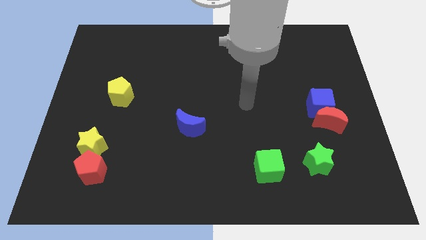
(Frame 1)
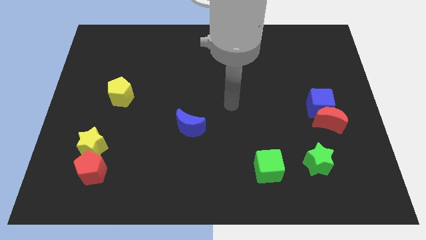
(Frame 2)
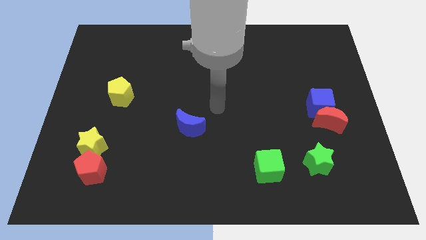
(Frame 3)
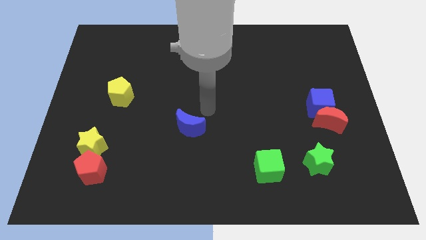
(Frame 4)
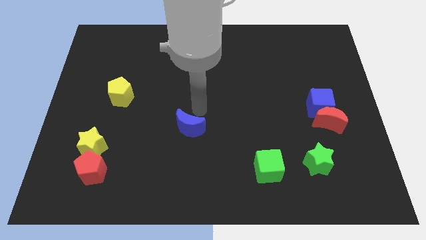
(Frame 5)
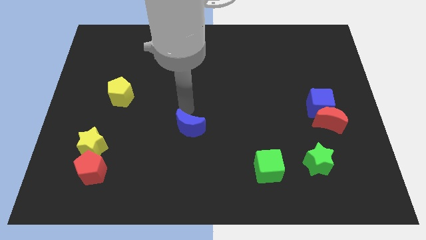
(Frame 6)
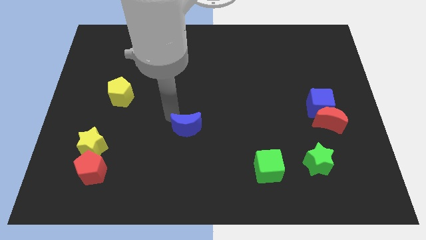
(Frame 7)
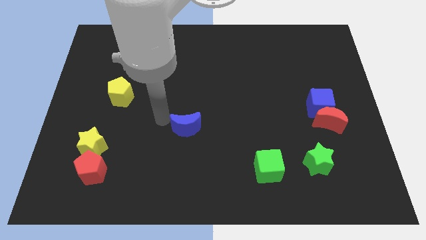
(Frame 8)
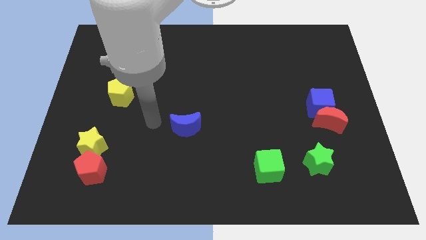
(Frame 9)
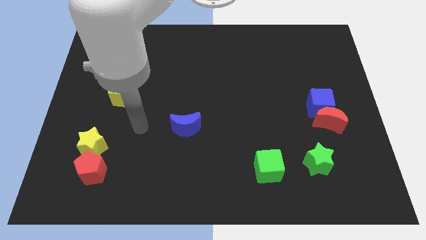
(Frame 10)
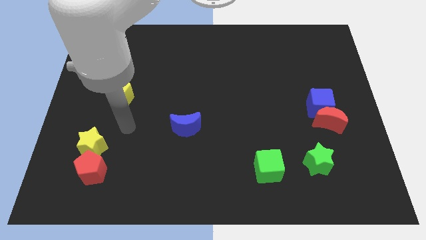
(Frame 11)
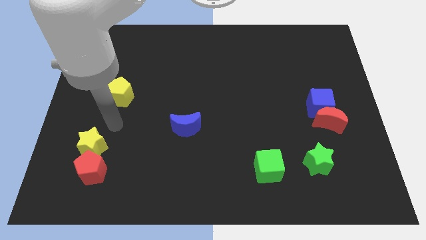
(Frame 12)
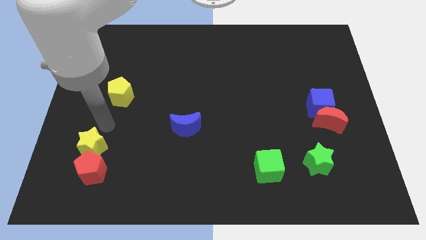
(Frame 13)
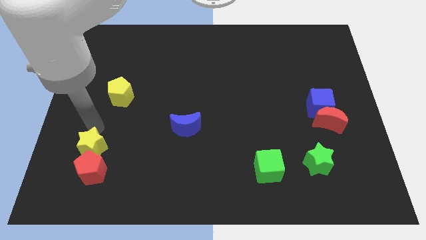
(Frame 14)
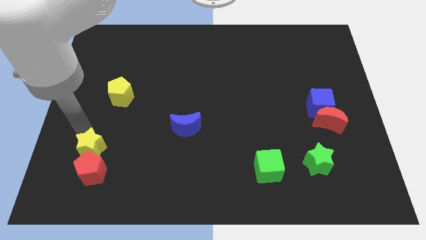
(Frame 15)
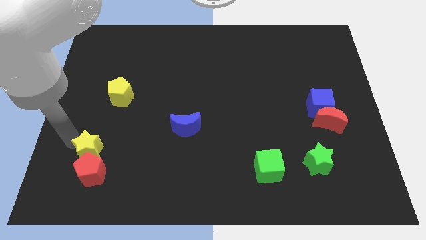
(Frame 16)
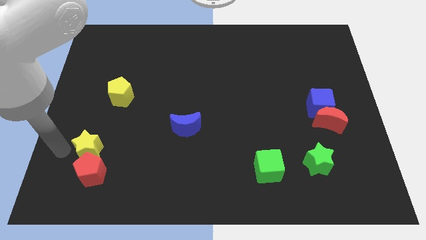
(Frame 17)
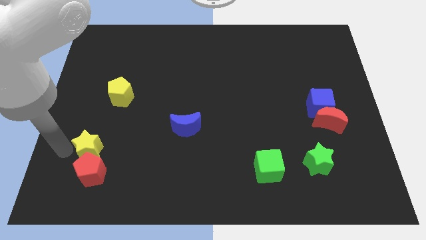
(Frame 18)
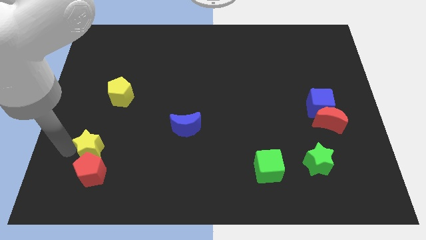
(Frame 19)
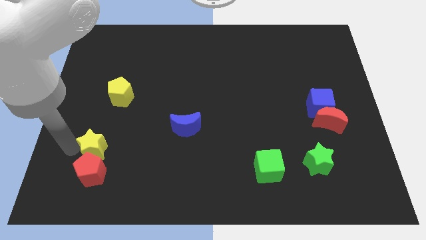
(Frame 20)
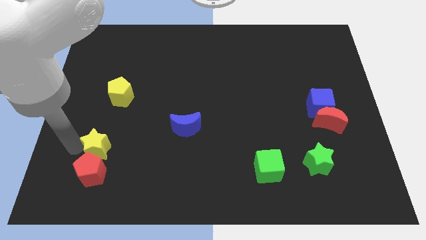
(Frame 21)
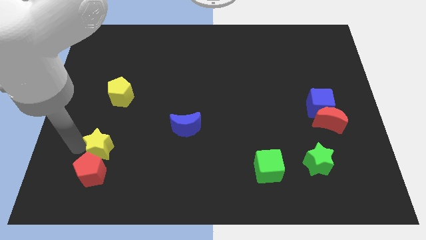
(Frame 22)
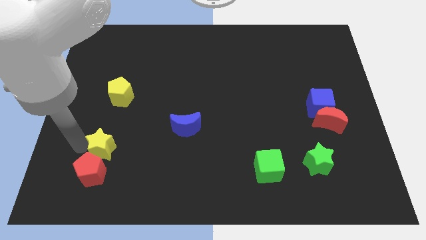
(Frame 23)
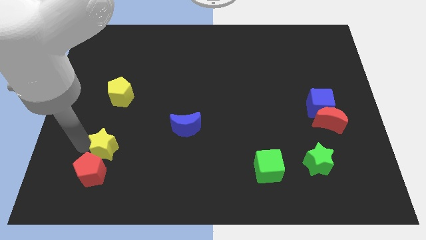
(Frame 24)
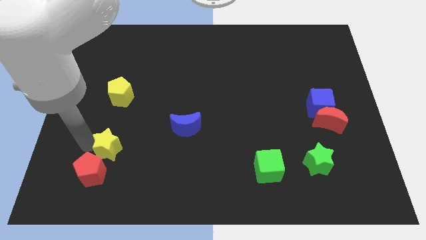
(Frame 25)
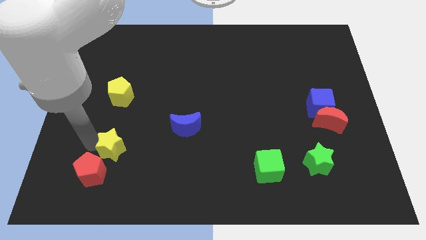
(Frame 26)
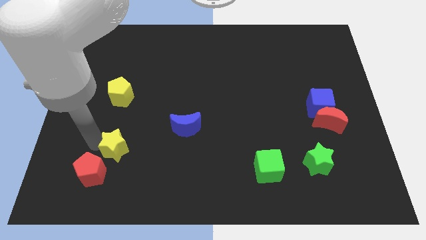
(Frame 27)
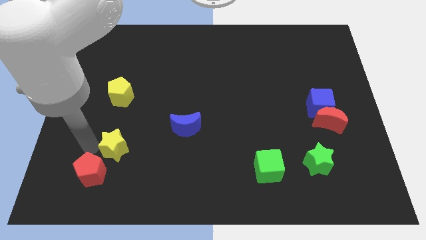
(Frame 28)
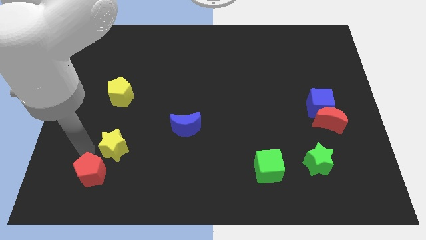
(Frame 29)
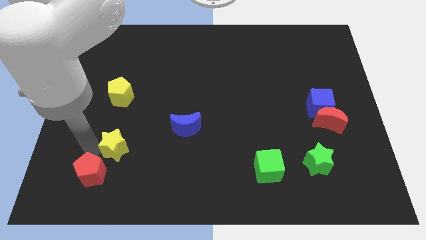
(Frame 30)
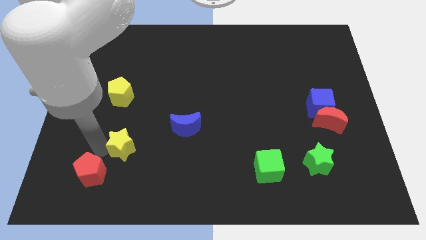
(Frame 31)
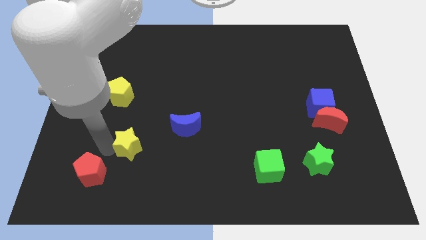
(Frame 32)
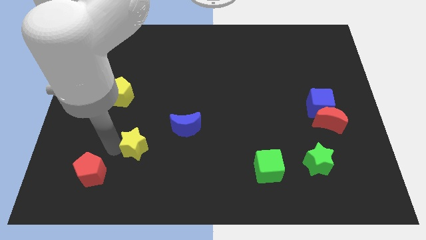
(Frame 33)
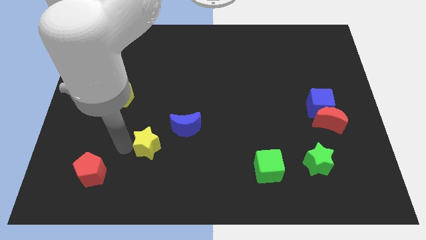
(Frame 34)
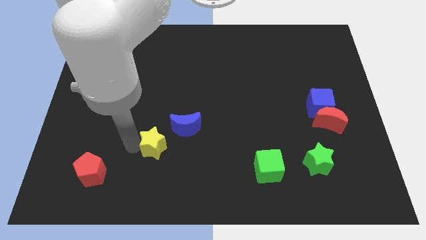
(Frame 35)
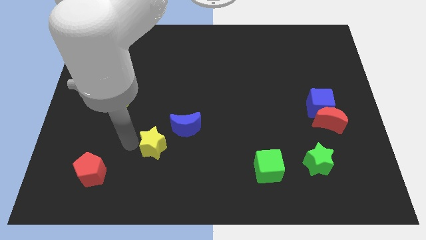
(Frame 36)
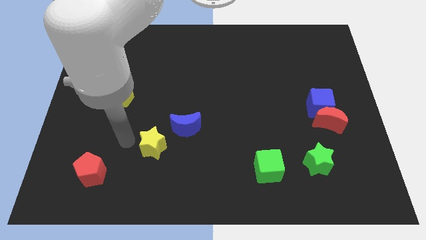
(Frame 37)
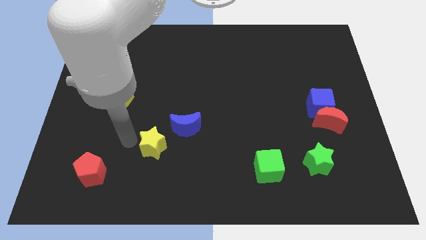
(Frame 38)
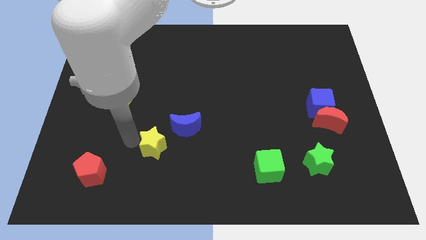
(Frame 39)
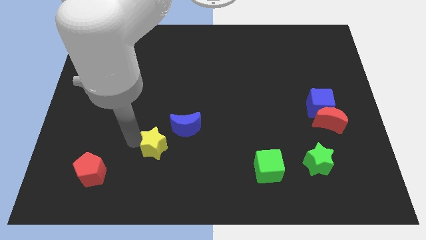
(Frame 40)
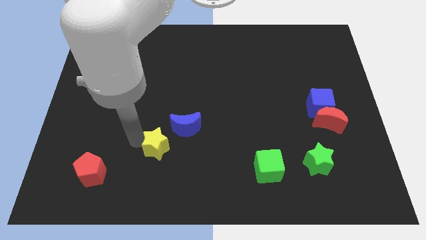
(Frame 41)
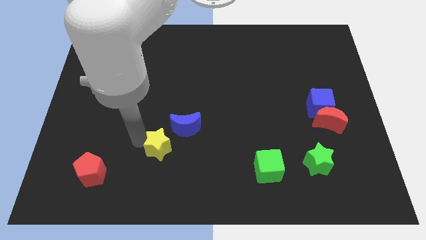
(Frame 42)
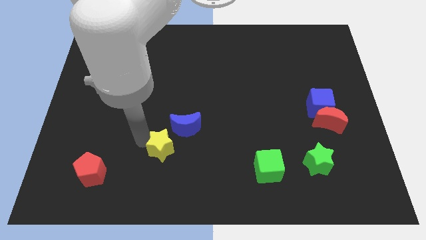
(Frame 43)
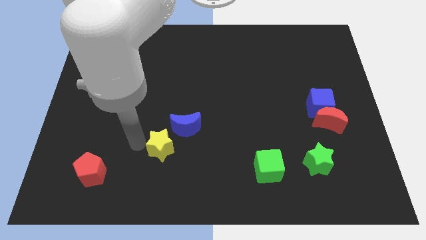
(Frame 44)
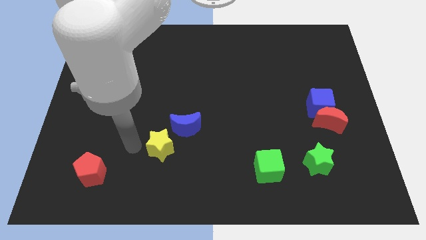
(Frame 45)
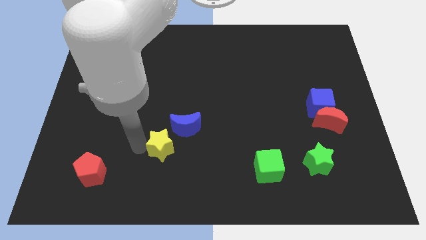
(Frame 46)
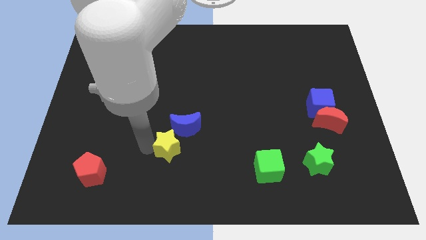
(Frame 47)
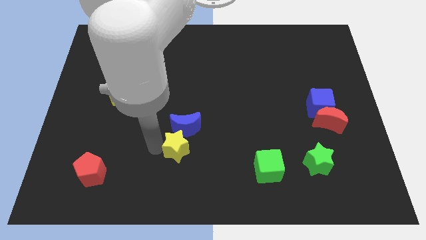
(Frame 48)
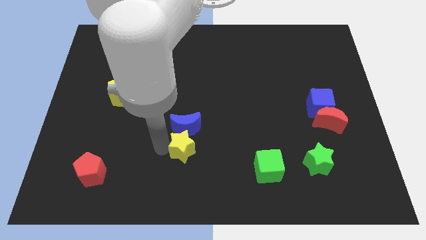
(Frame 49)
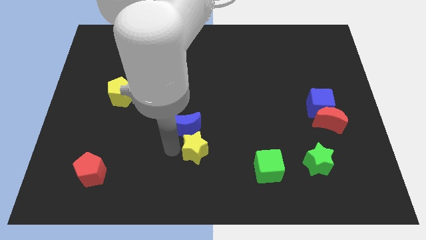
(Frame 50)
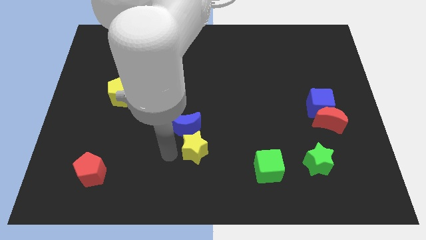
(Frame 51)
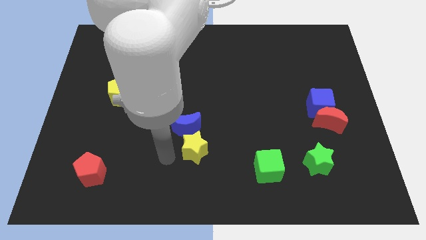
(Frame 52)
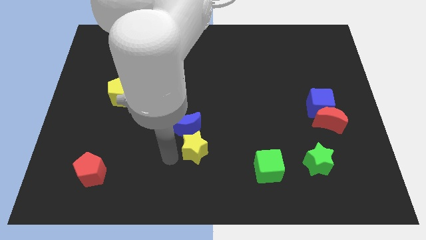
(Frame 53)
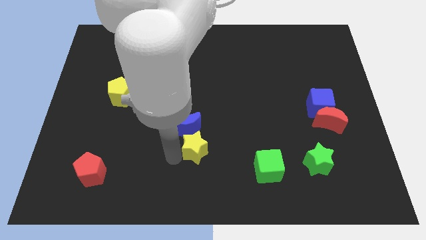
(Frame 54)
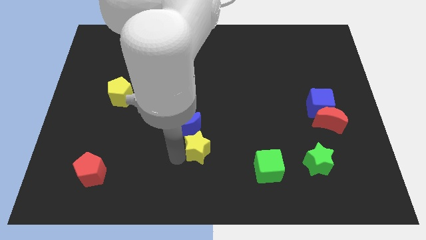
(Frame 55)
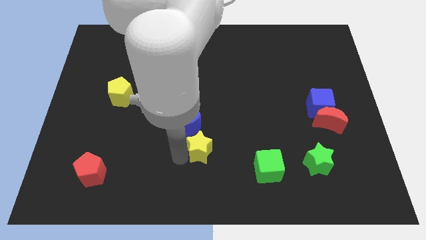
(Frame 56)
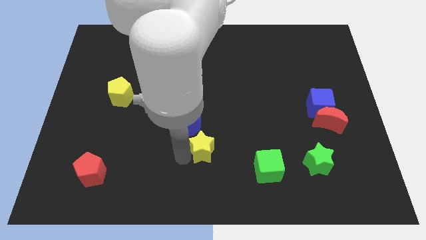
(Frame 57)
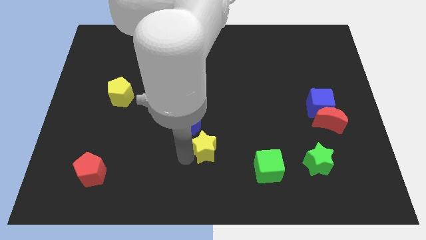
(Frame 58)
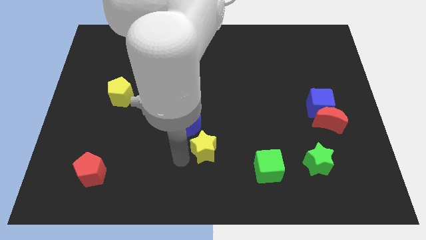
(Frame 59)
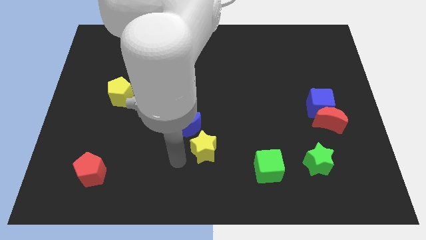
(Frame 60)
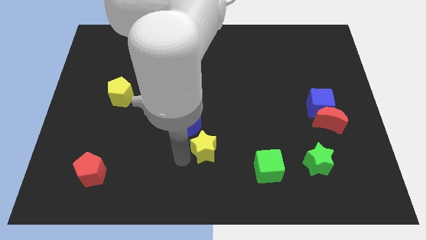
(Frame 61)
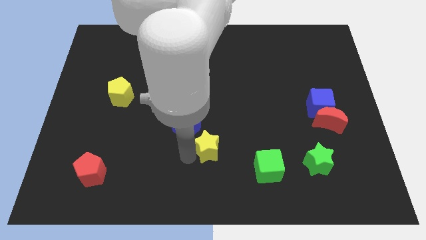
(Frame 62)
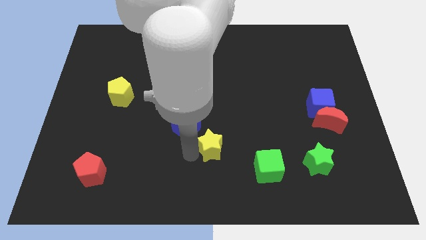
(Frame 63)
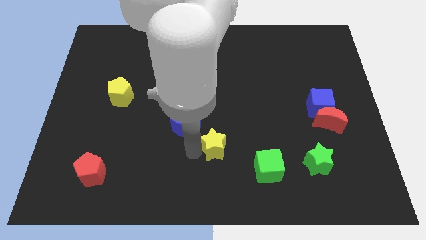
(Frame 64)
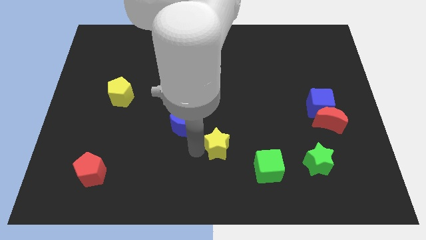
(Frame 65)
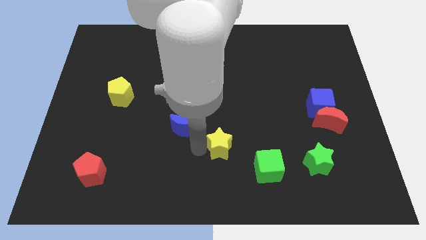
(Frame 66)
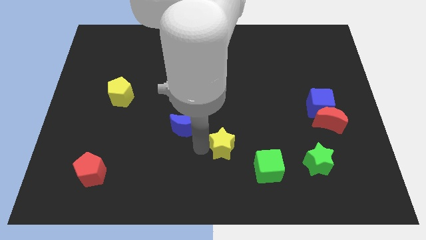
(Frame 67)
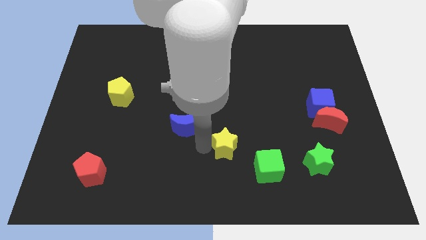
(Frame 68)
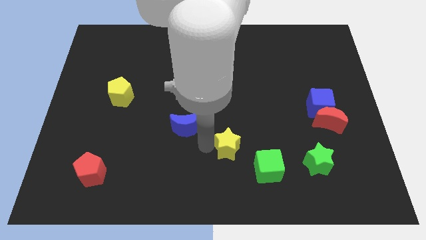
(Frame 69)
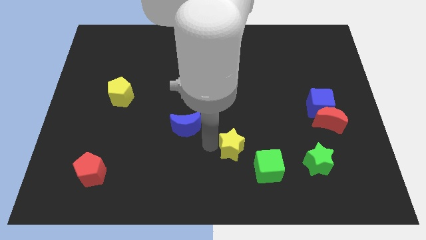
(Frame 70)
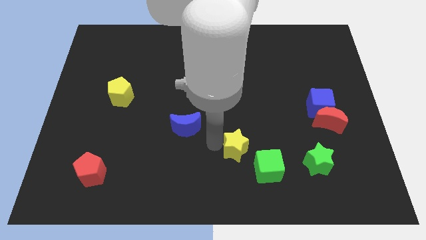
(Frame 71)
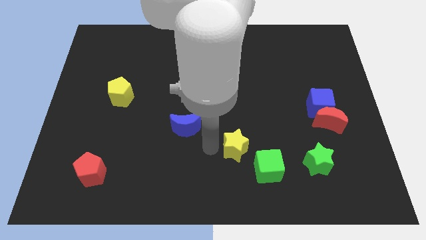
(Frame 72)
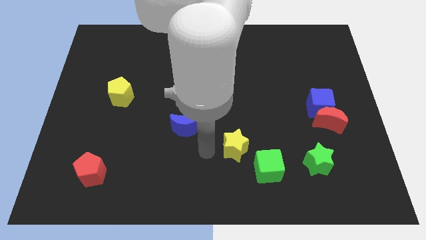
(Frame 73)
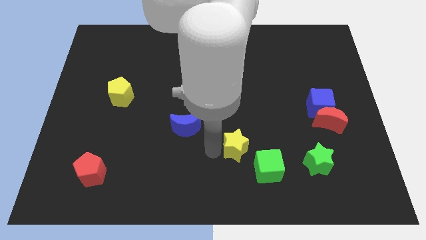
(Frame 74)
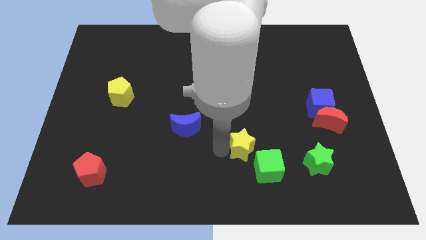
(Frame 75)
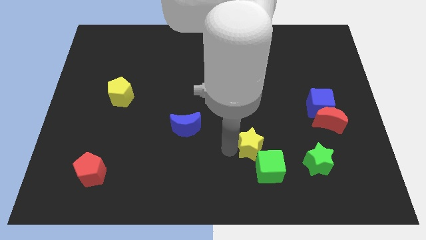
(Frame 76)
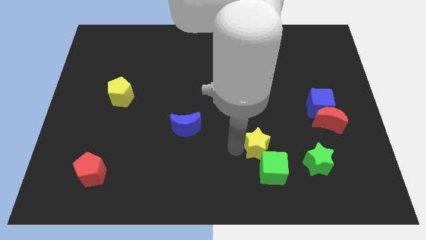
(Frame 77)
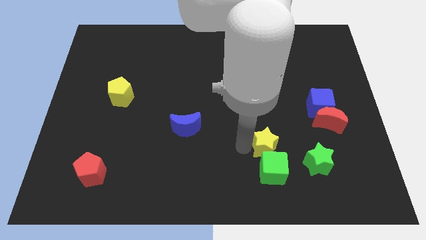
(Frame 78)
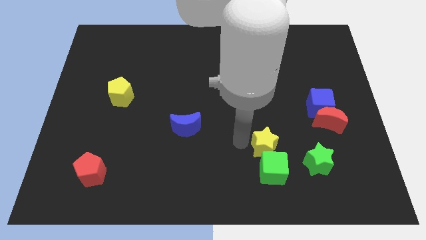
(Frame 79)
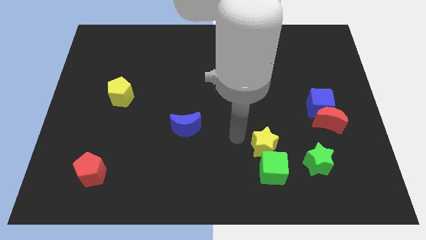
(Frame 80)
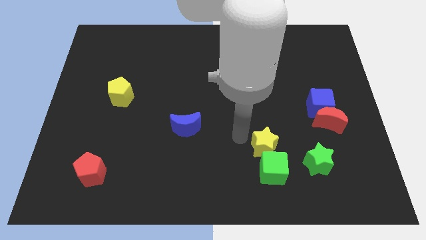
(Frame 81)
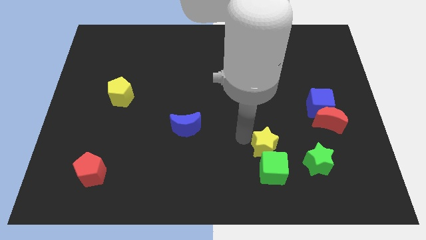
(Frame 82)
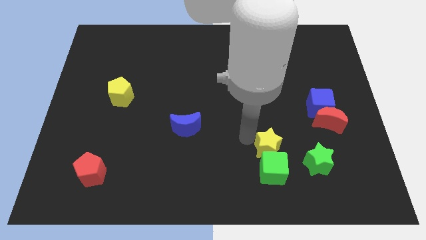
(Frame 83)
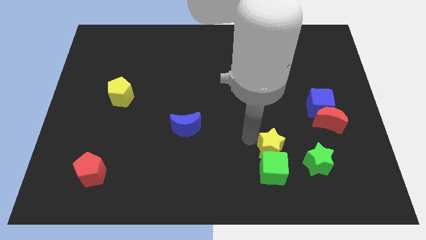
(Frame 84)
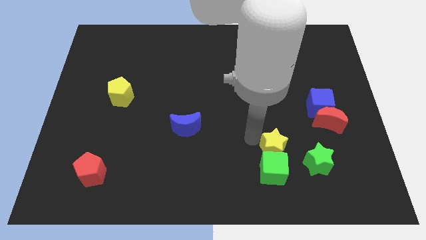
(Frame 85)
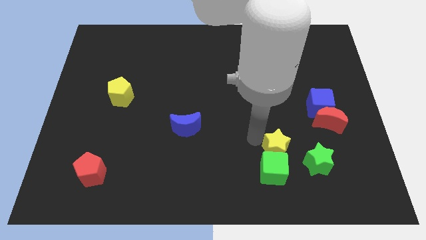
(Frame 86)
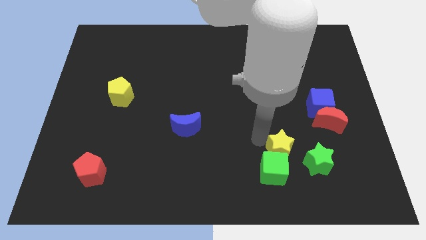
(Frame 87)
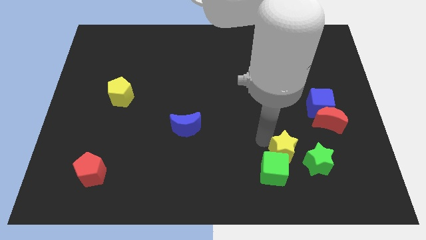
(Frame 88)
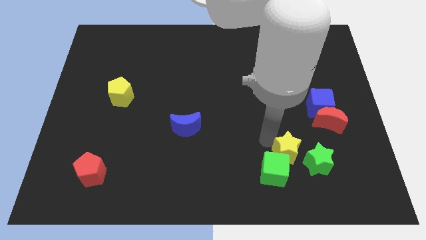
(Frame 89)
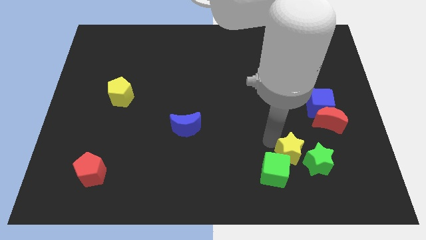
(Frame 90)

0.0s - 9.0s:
slide the yellow star to the green star

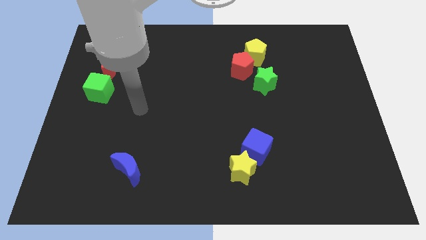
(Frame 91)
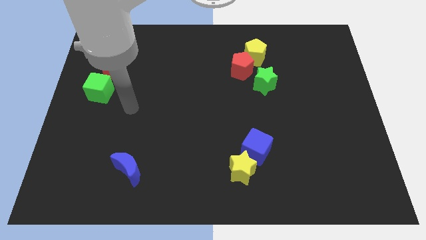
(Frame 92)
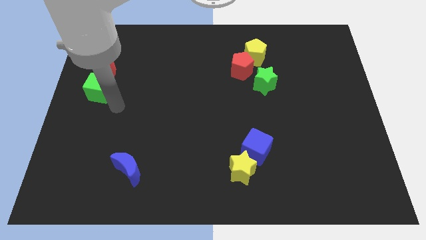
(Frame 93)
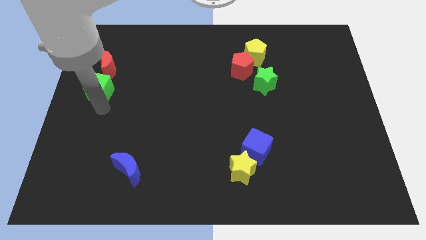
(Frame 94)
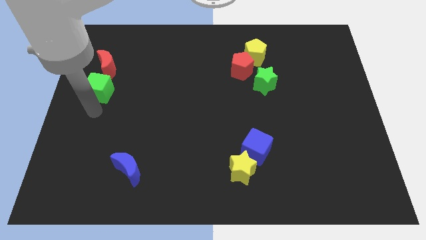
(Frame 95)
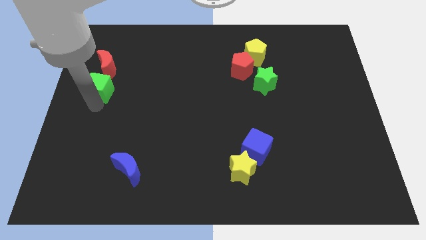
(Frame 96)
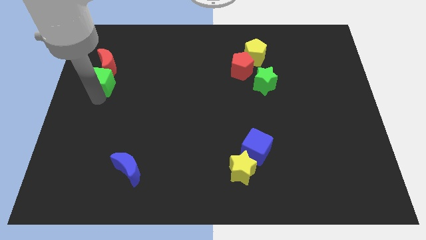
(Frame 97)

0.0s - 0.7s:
move the green cube to the red moon
